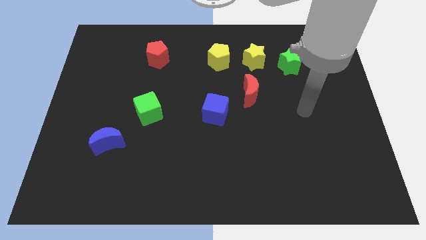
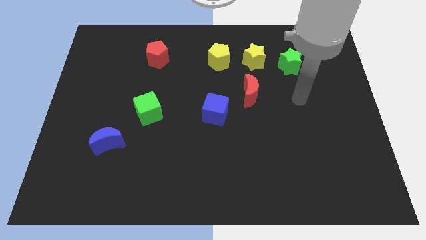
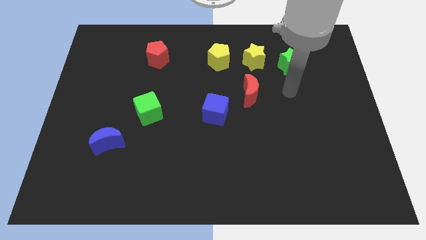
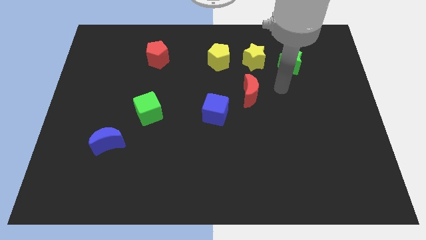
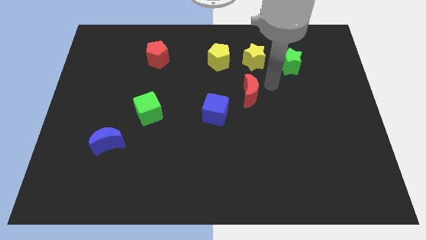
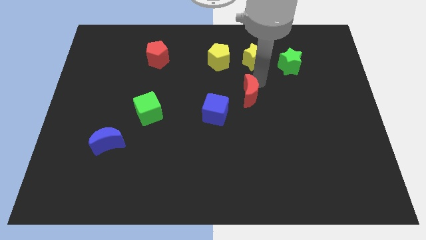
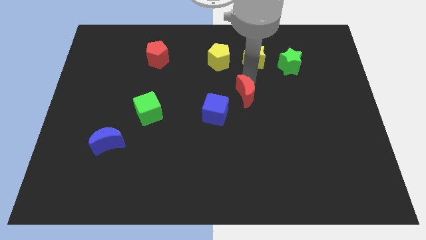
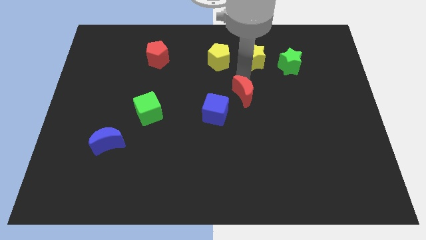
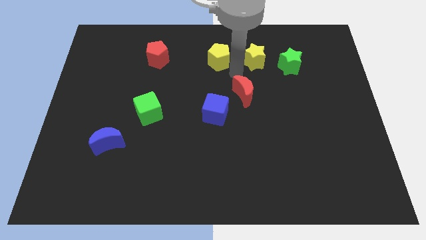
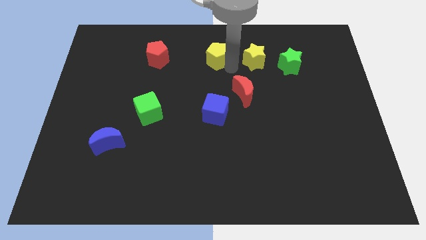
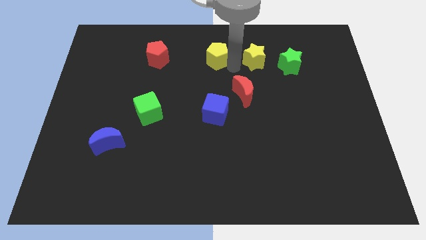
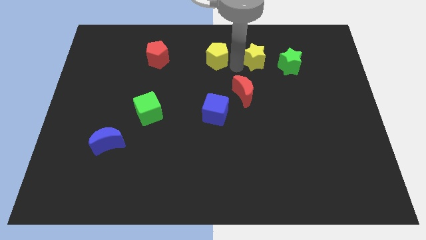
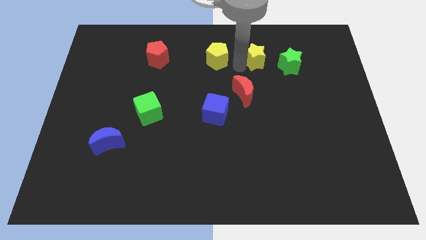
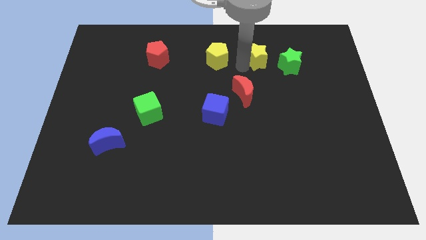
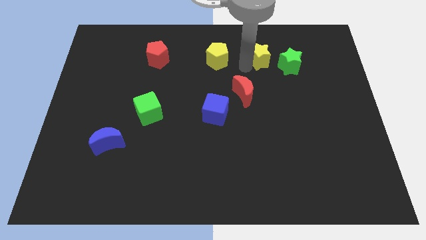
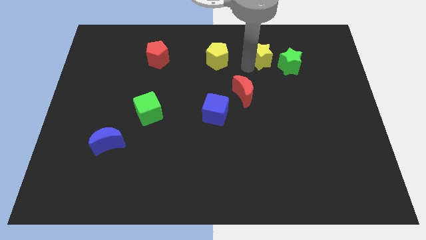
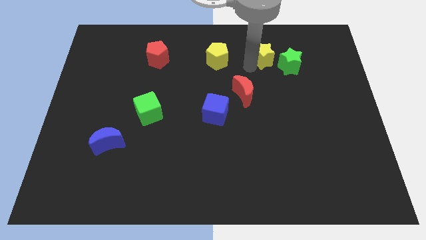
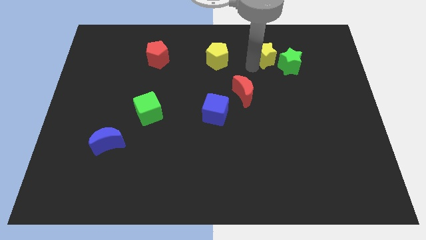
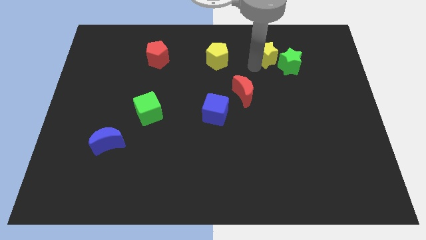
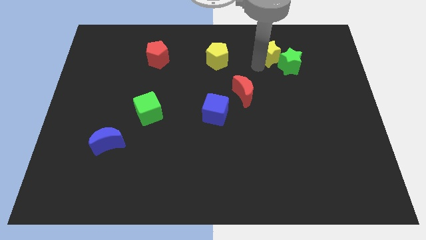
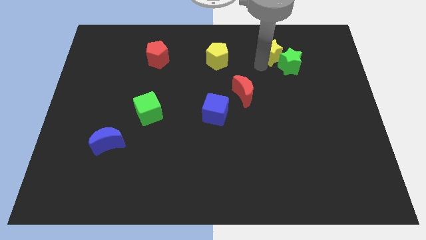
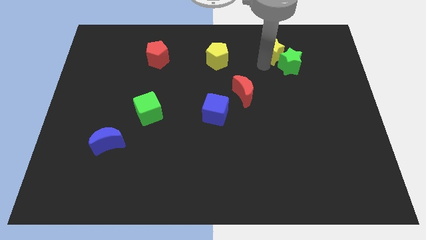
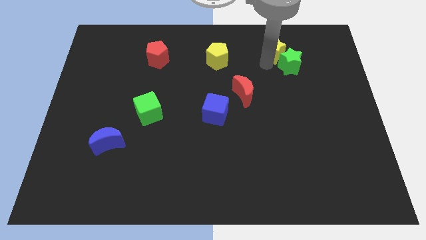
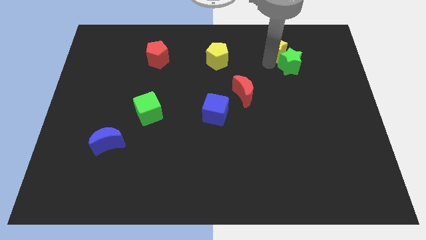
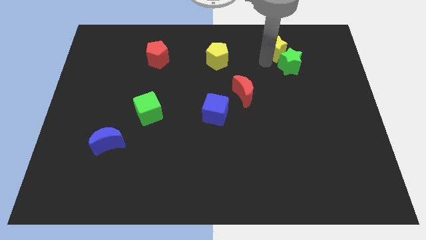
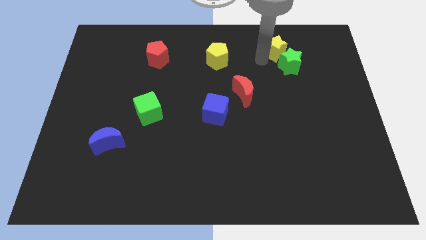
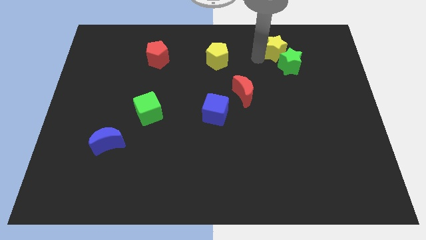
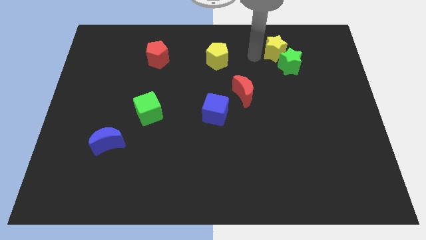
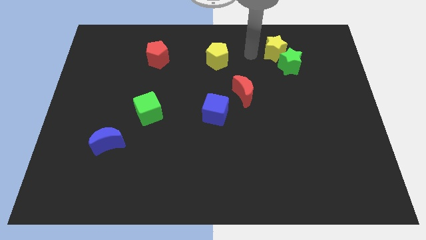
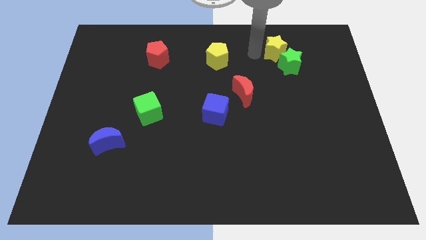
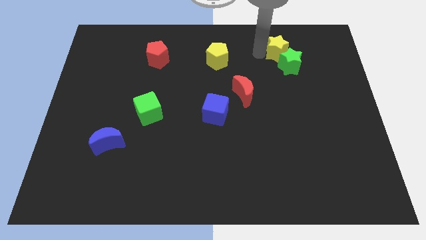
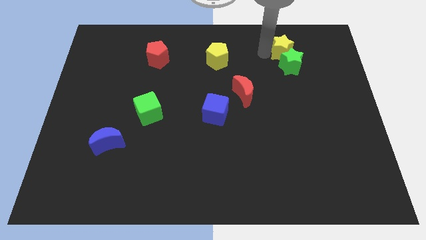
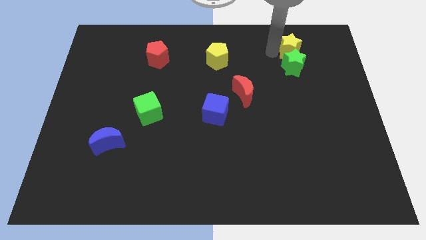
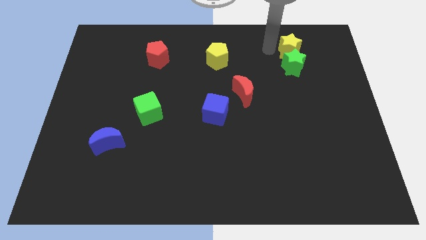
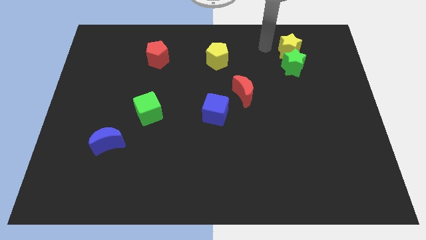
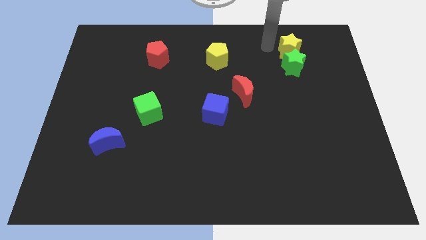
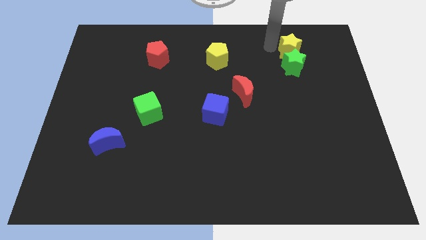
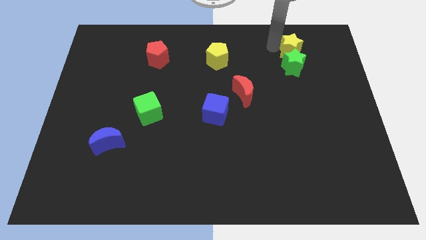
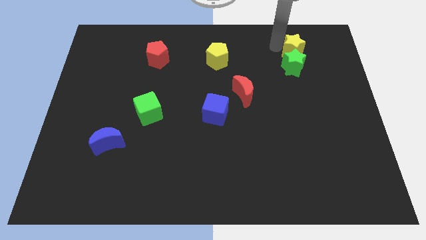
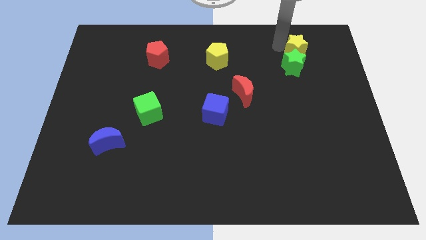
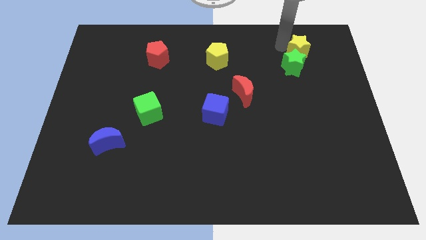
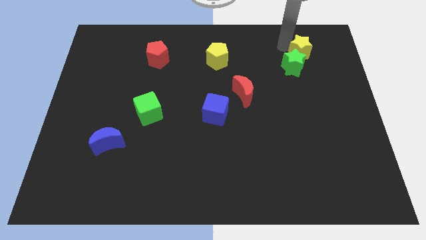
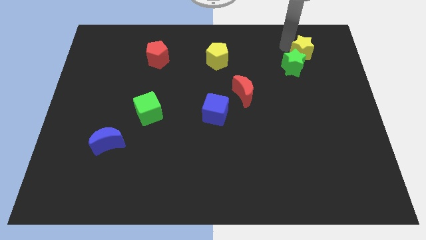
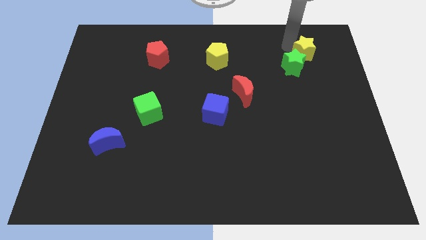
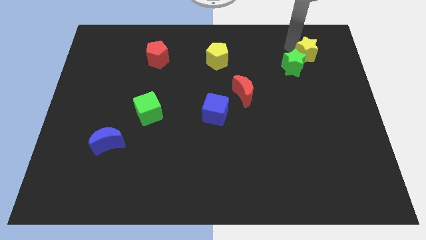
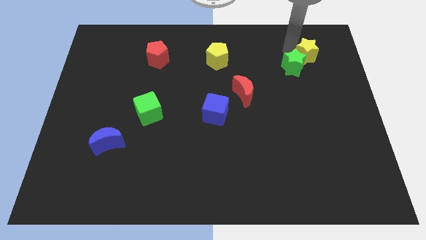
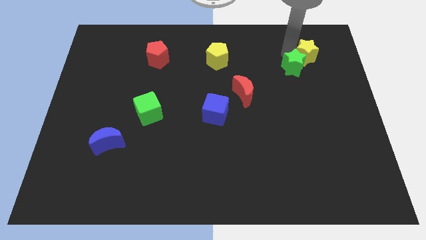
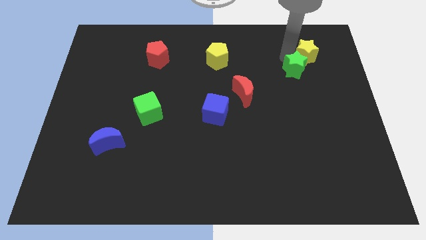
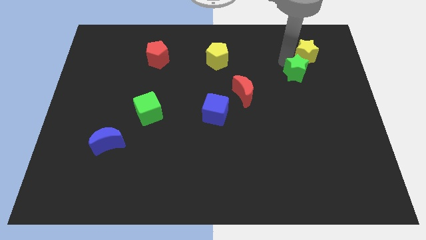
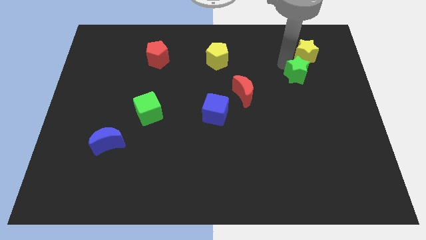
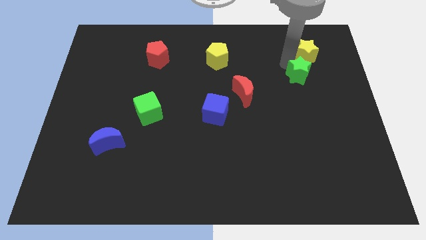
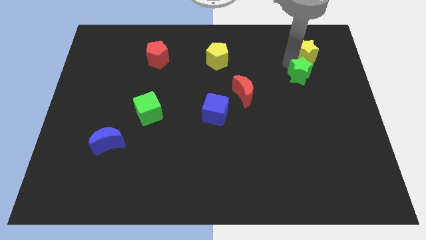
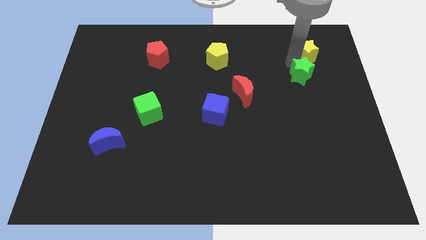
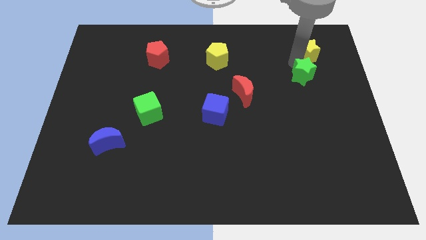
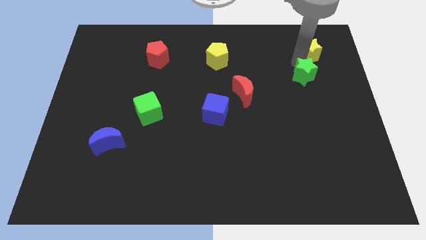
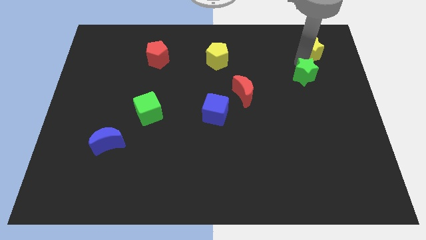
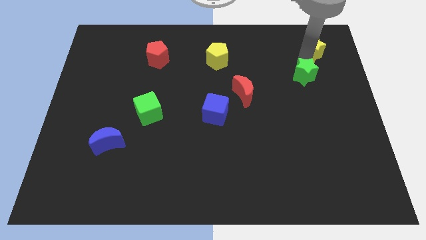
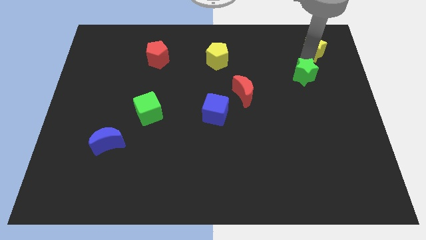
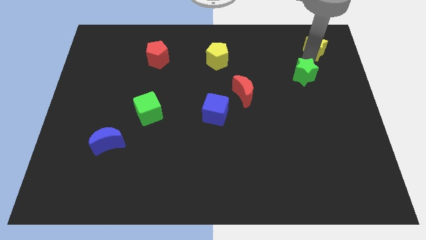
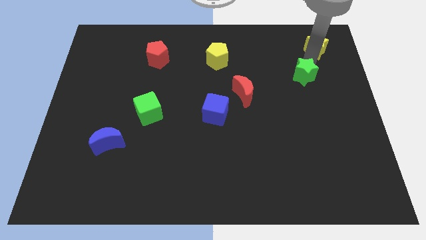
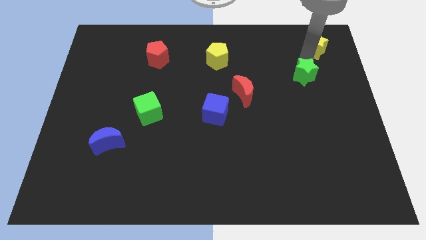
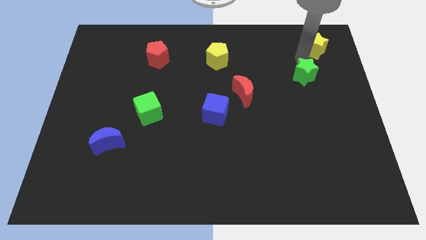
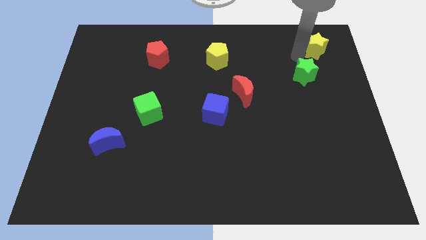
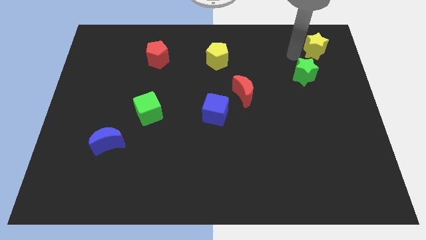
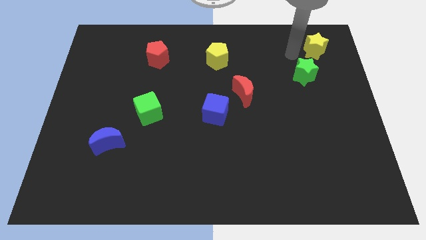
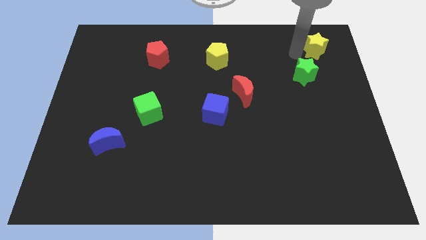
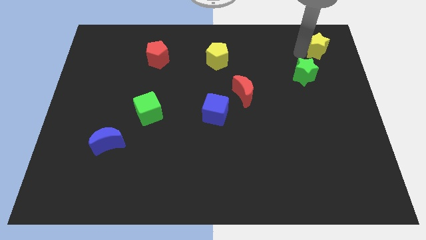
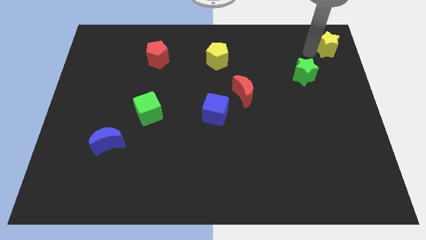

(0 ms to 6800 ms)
push the yellow star to the top right corner
